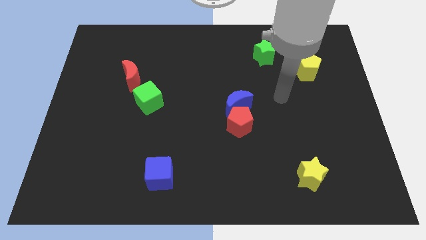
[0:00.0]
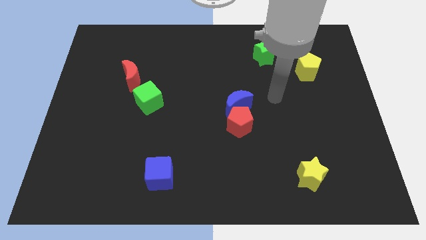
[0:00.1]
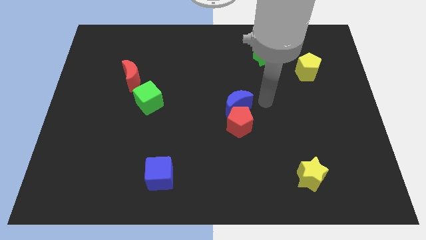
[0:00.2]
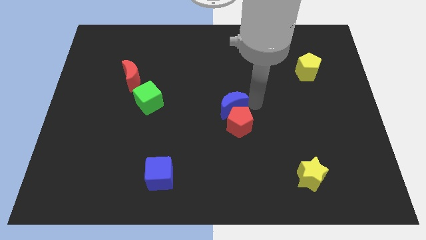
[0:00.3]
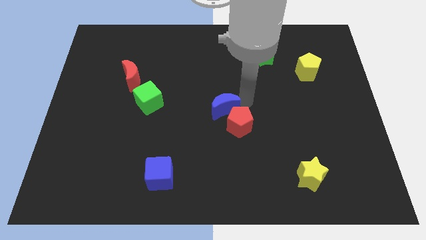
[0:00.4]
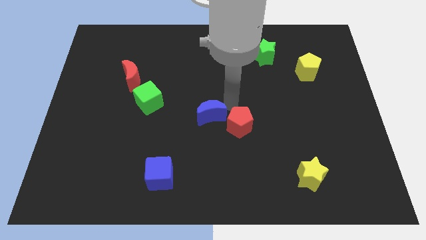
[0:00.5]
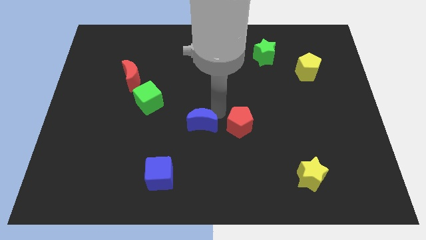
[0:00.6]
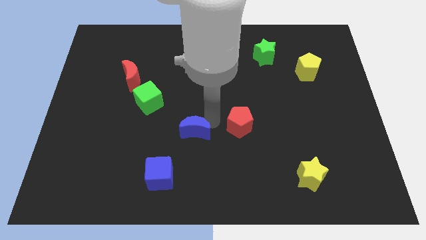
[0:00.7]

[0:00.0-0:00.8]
pull the red pentagon apart from the blue moon

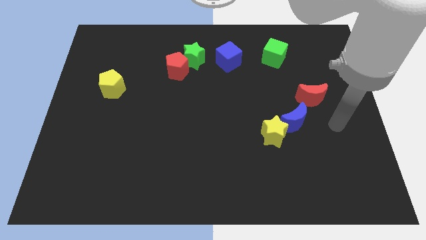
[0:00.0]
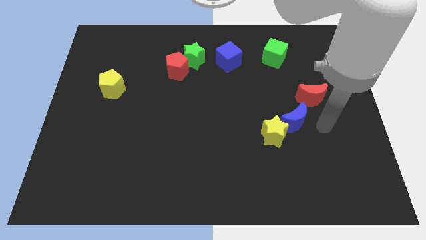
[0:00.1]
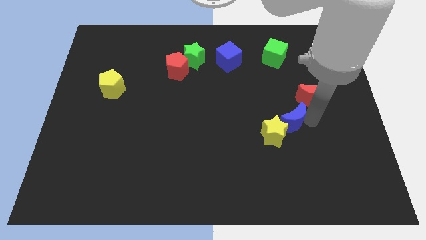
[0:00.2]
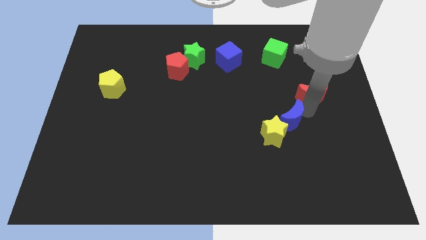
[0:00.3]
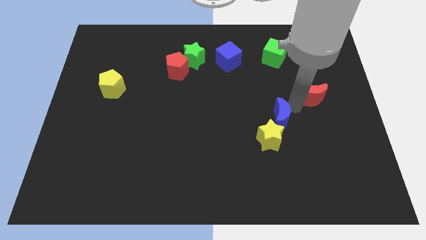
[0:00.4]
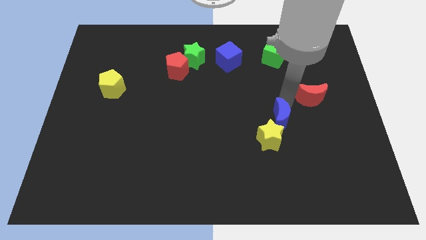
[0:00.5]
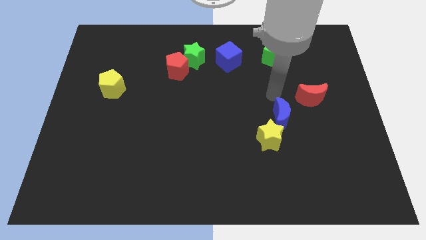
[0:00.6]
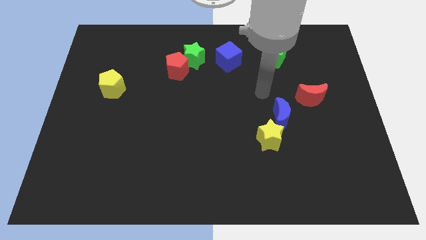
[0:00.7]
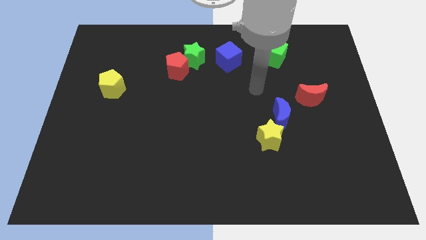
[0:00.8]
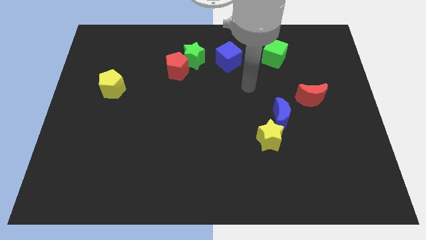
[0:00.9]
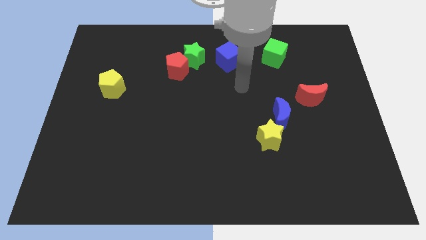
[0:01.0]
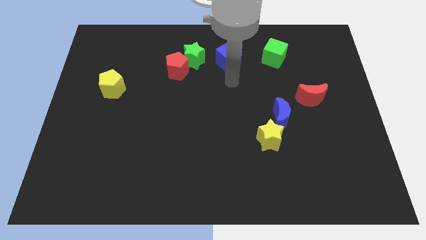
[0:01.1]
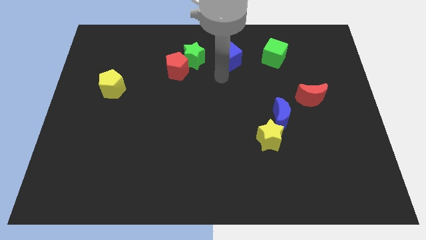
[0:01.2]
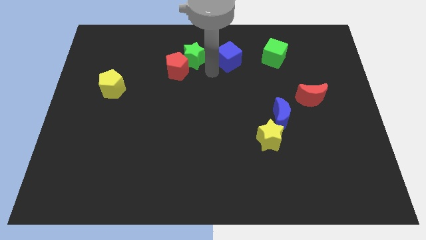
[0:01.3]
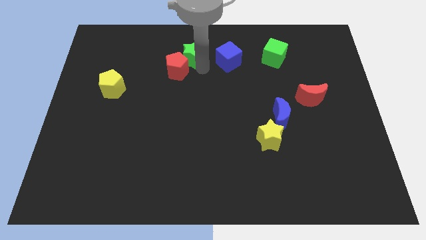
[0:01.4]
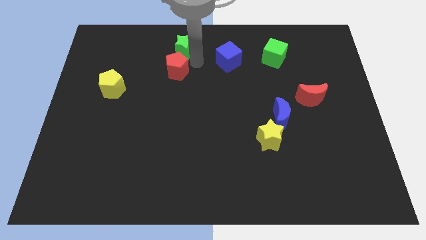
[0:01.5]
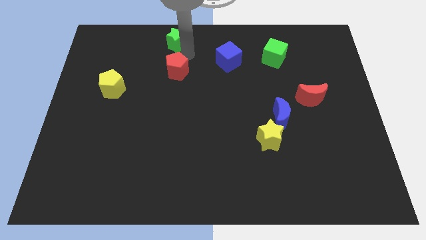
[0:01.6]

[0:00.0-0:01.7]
pull the red pentagon apart from the green star

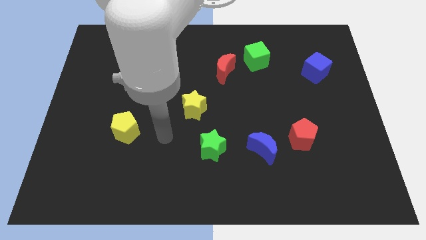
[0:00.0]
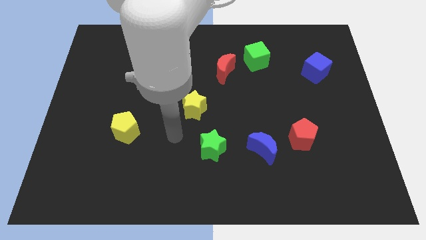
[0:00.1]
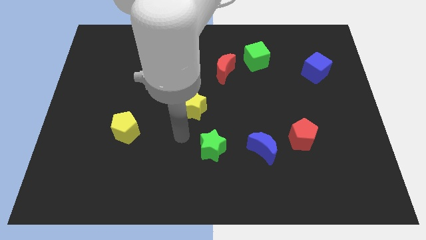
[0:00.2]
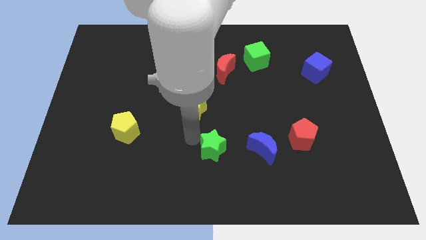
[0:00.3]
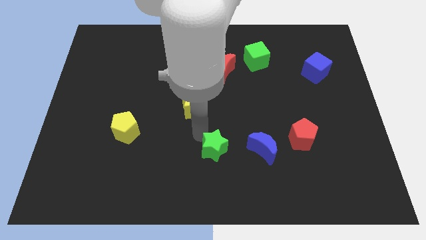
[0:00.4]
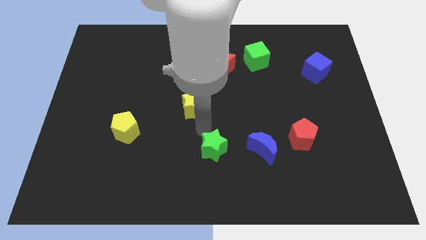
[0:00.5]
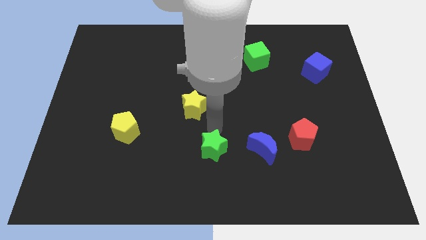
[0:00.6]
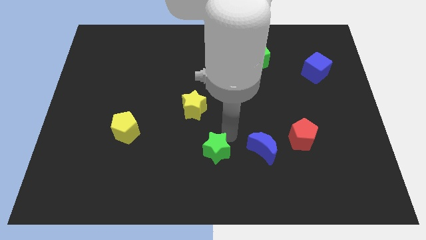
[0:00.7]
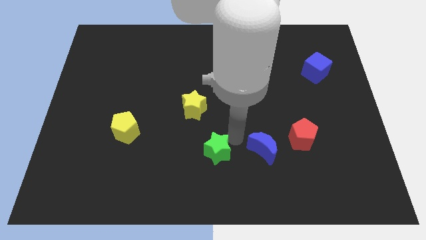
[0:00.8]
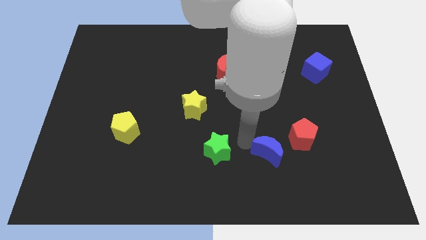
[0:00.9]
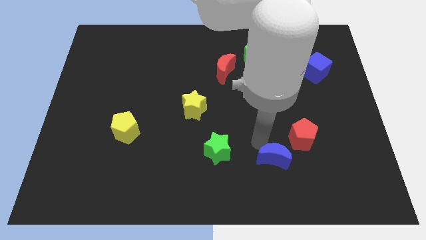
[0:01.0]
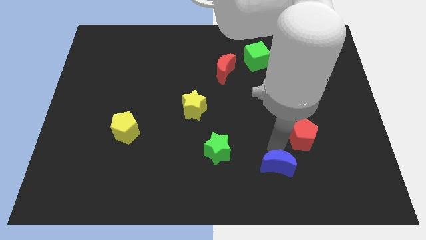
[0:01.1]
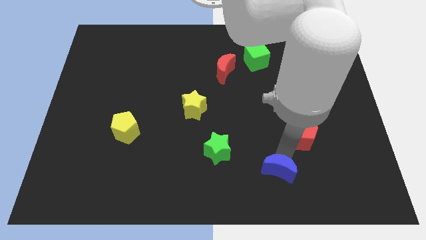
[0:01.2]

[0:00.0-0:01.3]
separate the red pentagon from the blue moon

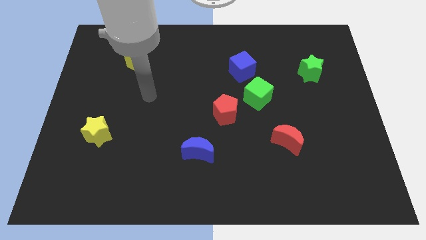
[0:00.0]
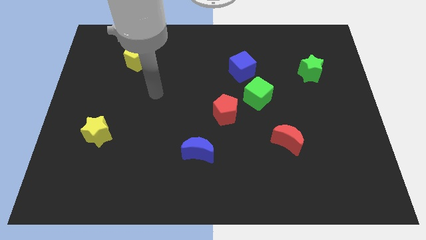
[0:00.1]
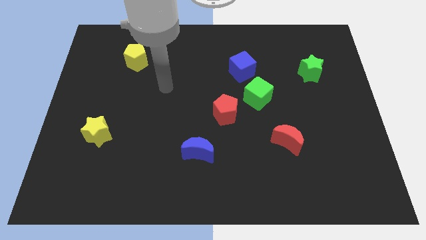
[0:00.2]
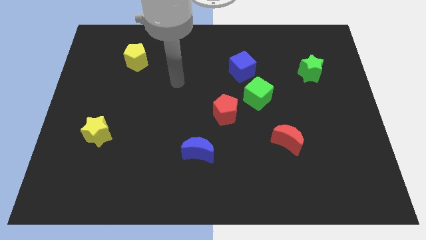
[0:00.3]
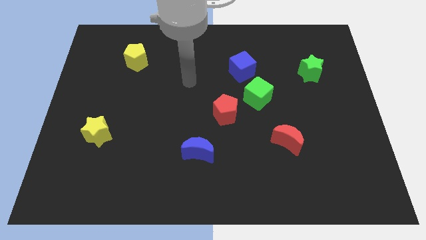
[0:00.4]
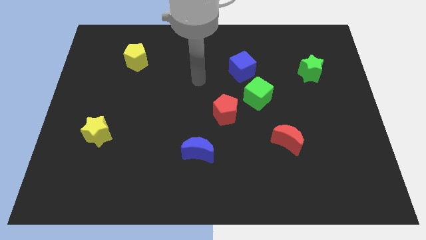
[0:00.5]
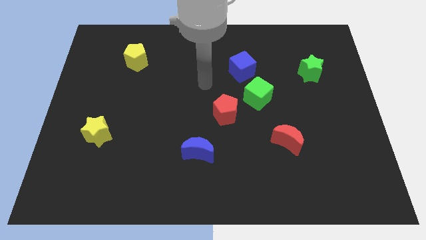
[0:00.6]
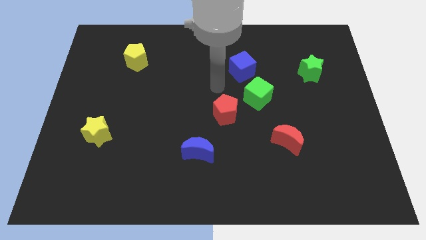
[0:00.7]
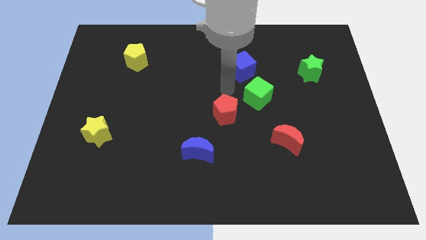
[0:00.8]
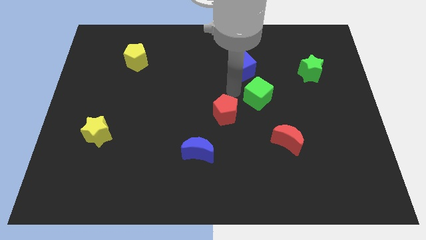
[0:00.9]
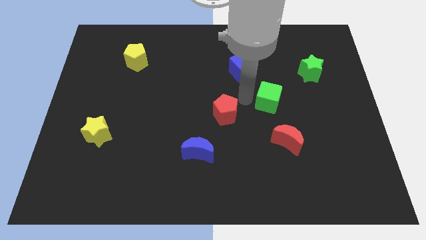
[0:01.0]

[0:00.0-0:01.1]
move the red pentagon away from the green cube

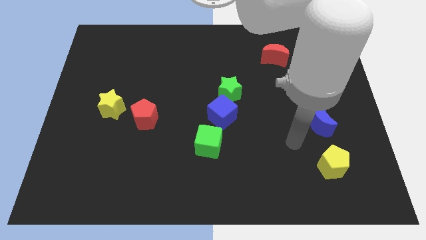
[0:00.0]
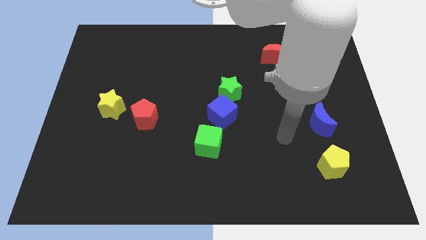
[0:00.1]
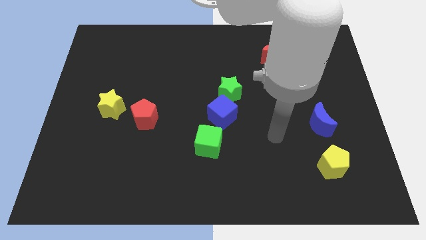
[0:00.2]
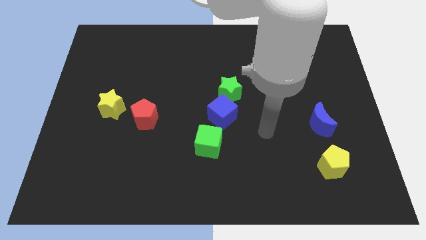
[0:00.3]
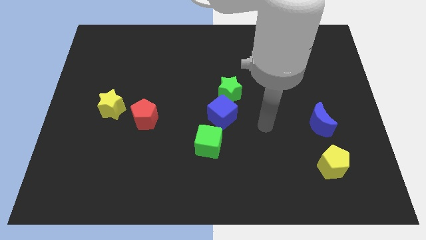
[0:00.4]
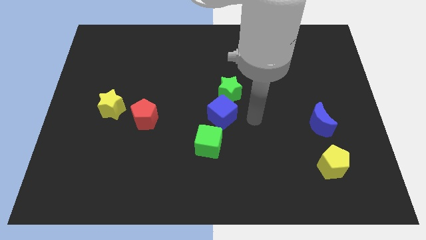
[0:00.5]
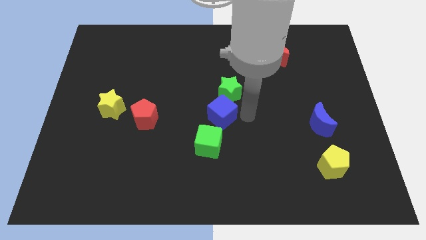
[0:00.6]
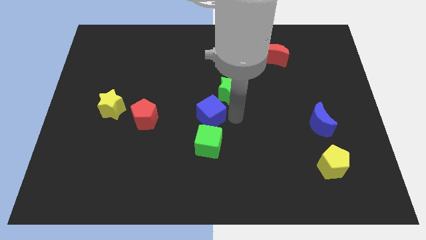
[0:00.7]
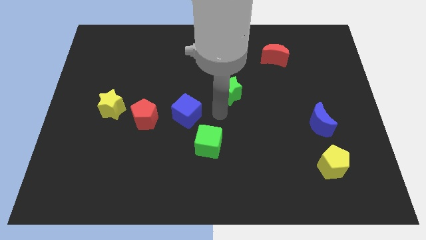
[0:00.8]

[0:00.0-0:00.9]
separate the green star from the blue cube

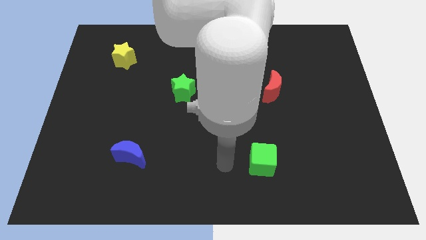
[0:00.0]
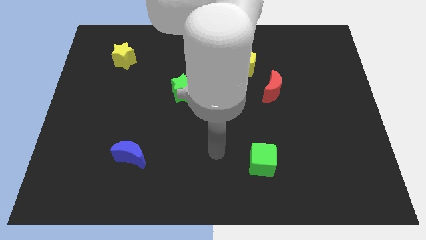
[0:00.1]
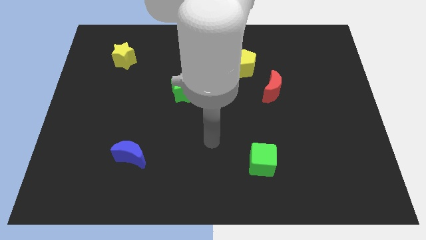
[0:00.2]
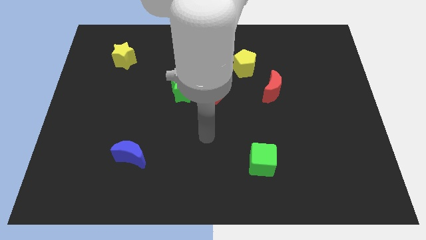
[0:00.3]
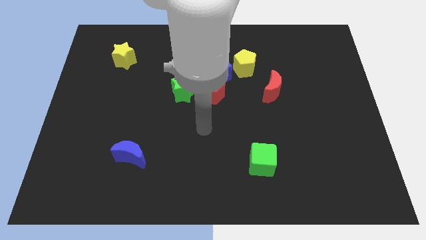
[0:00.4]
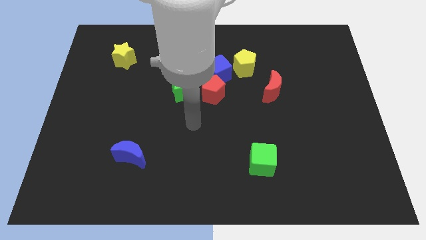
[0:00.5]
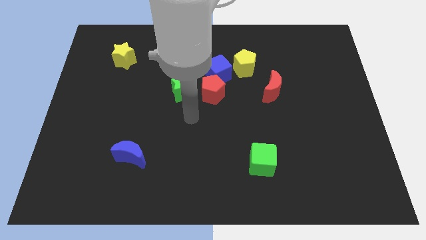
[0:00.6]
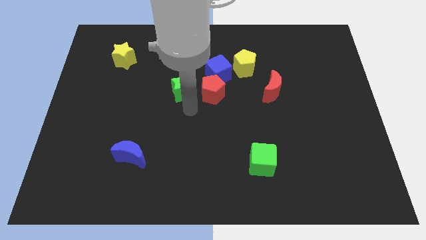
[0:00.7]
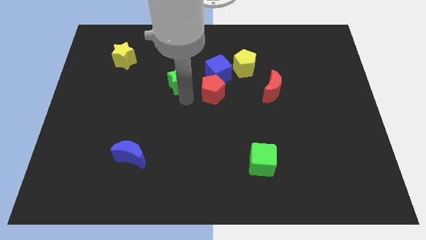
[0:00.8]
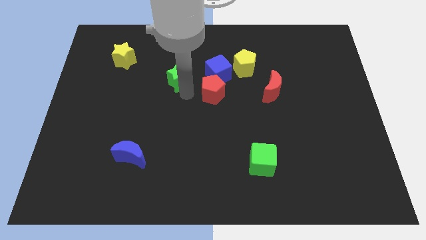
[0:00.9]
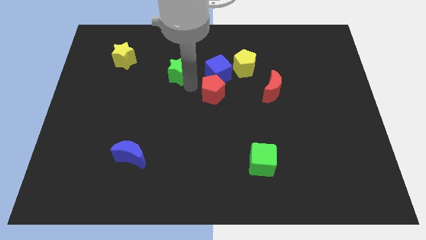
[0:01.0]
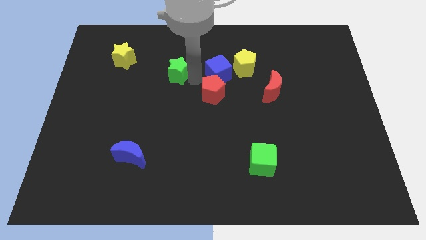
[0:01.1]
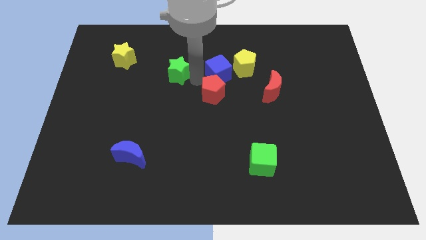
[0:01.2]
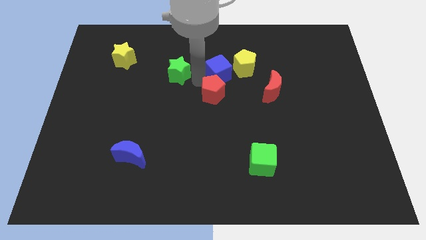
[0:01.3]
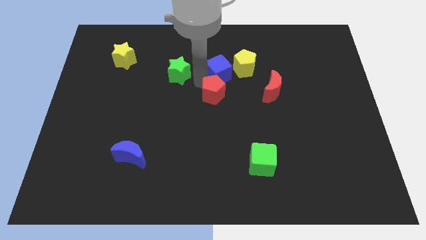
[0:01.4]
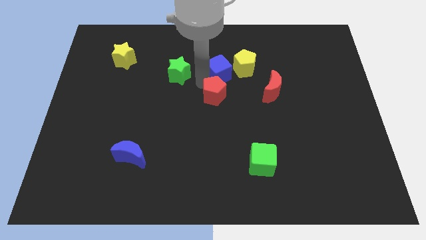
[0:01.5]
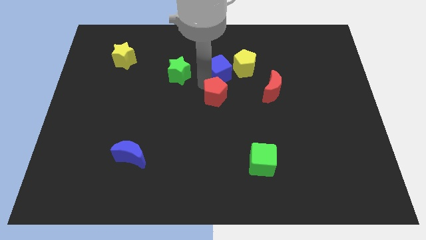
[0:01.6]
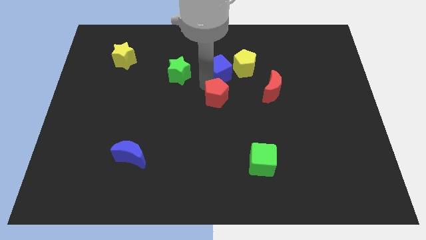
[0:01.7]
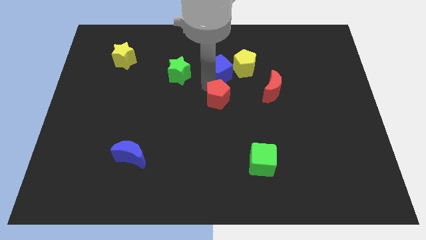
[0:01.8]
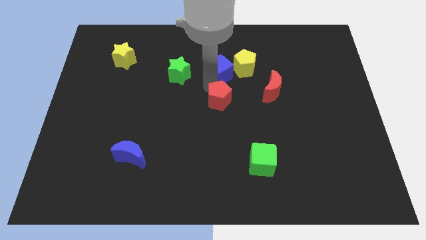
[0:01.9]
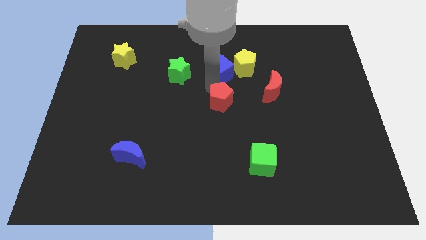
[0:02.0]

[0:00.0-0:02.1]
separate the red pentagon from the blue cube and green star

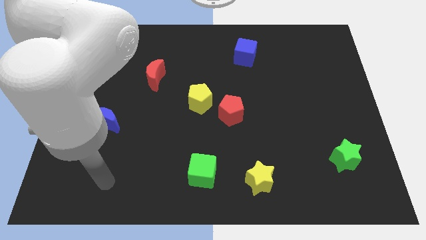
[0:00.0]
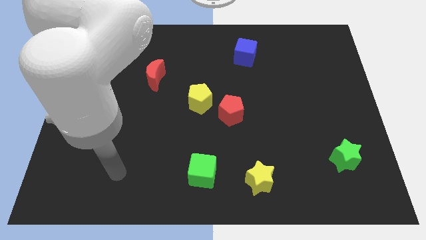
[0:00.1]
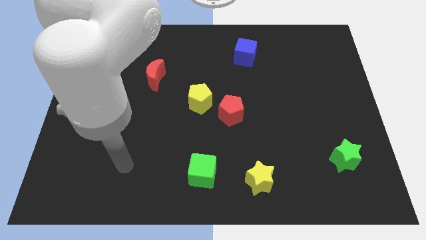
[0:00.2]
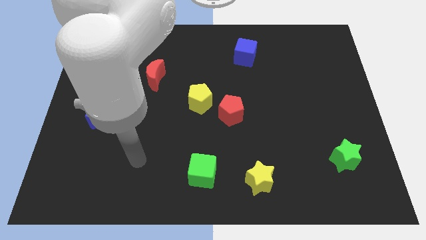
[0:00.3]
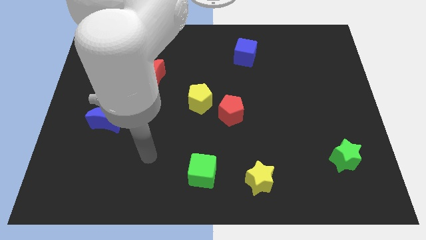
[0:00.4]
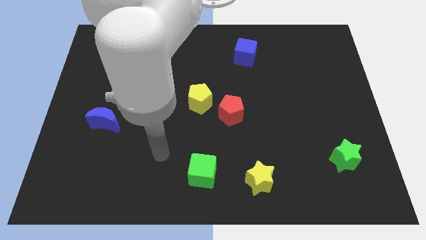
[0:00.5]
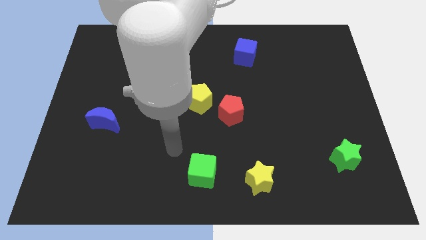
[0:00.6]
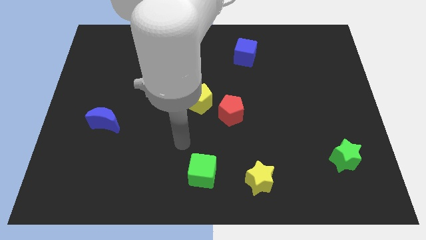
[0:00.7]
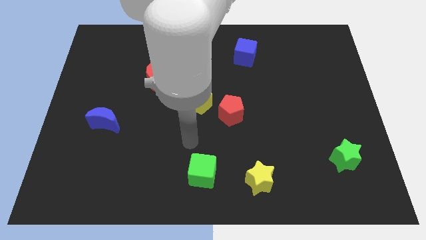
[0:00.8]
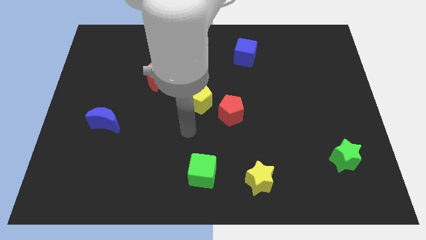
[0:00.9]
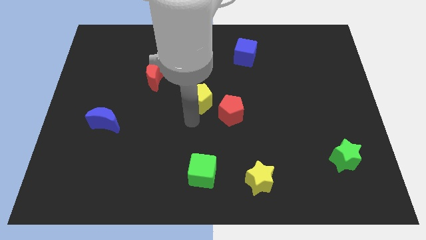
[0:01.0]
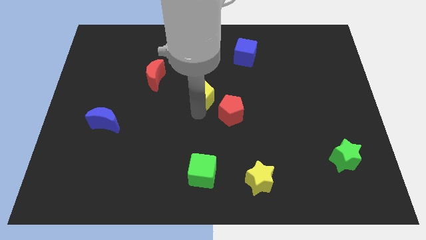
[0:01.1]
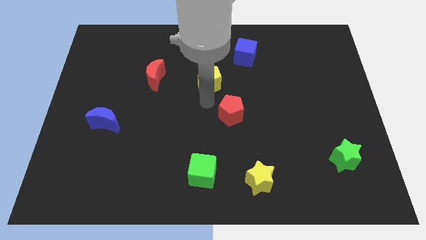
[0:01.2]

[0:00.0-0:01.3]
separate the red pentagon from the yellow pentagon

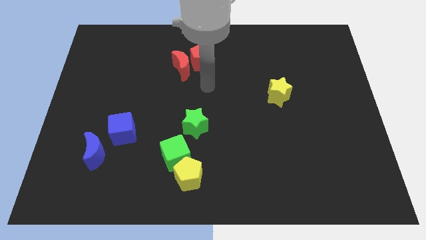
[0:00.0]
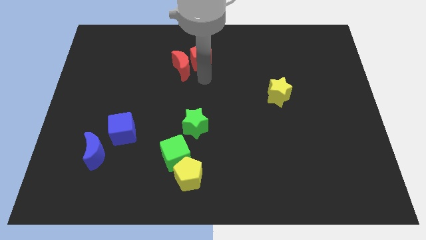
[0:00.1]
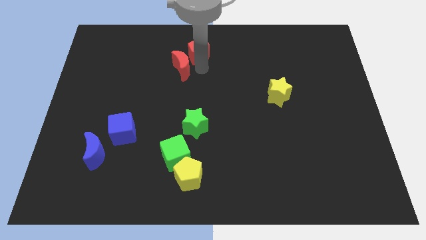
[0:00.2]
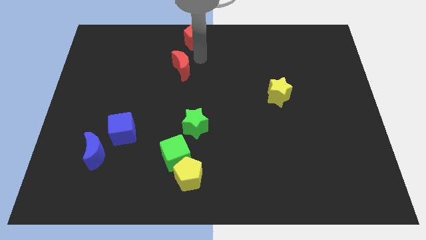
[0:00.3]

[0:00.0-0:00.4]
move the red moon away from the red pentagon
